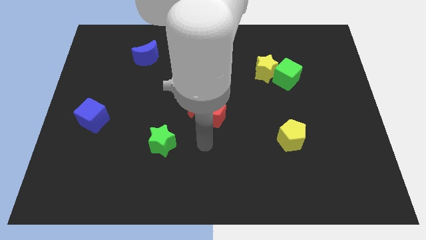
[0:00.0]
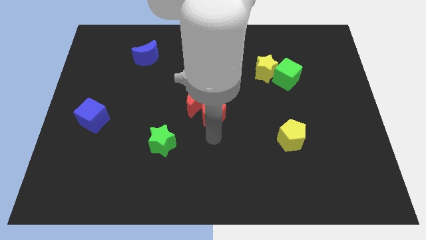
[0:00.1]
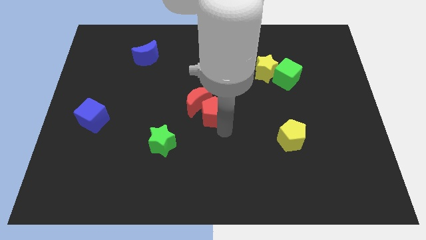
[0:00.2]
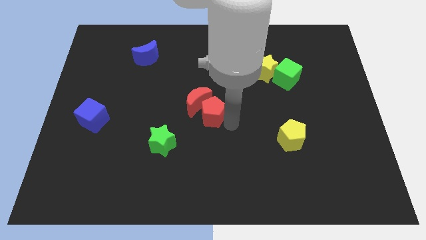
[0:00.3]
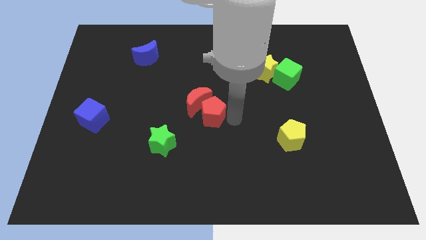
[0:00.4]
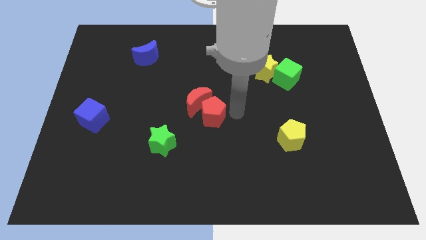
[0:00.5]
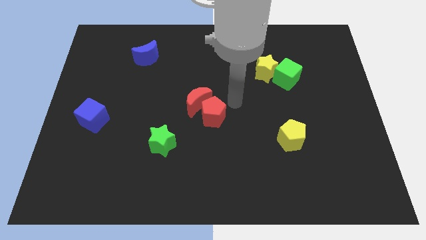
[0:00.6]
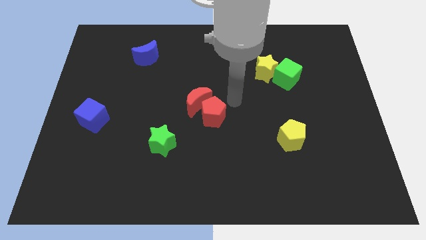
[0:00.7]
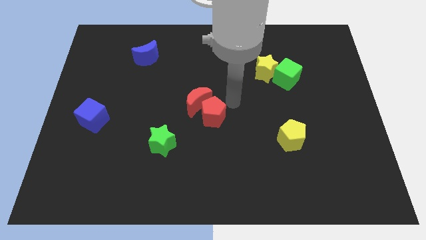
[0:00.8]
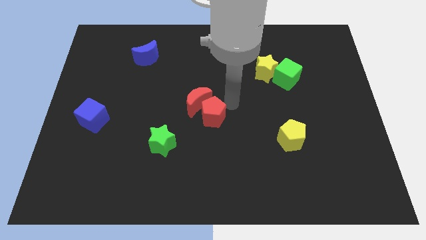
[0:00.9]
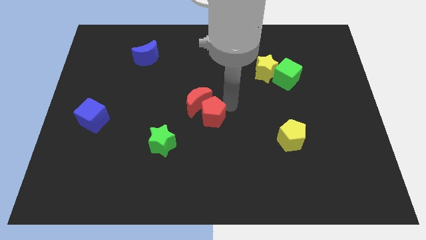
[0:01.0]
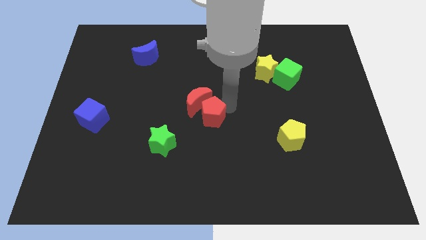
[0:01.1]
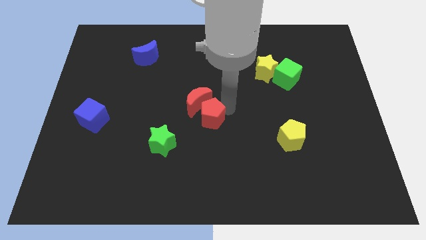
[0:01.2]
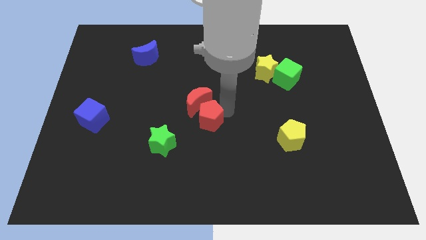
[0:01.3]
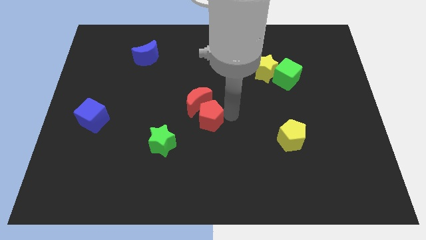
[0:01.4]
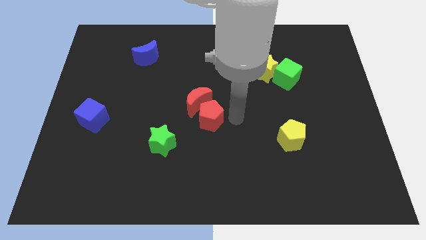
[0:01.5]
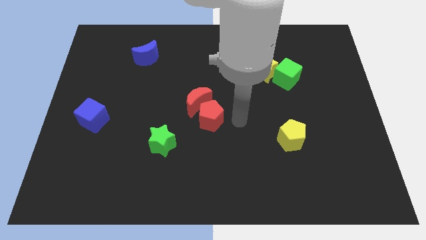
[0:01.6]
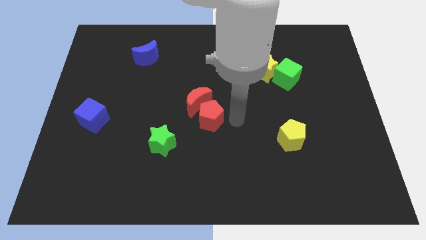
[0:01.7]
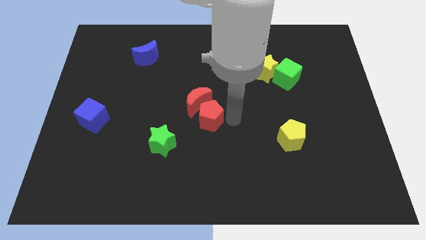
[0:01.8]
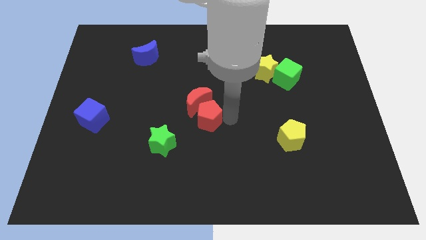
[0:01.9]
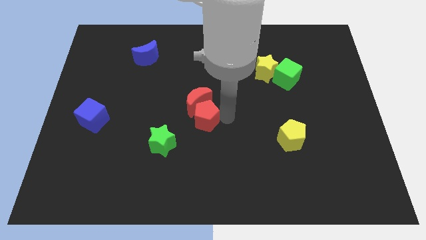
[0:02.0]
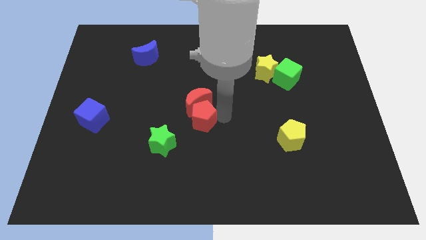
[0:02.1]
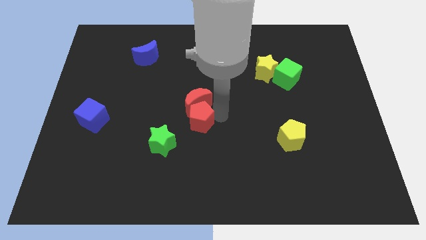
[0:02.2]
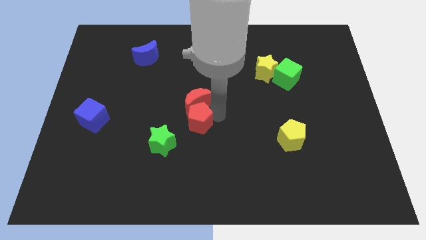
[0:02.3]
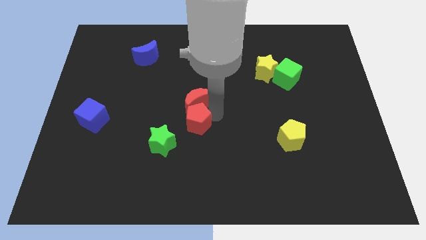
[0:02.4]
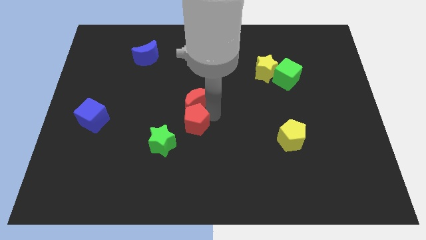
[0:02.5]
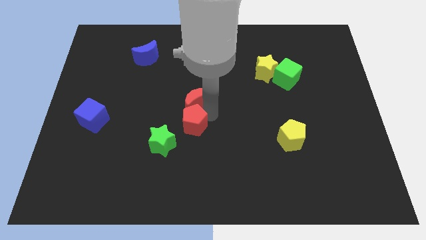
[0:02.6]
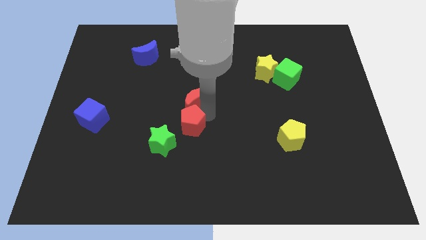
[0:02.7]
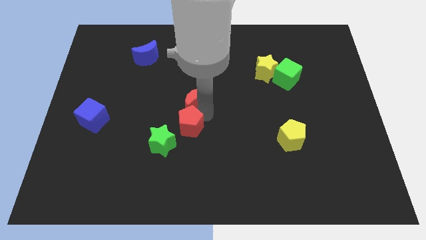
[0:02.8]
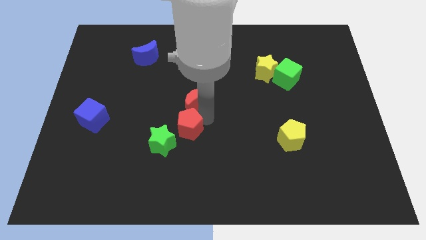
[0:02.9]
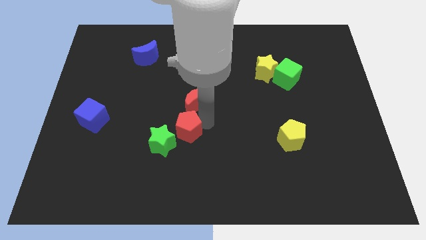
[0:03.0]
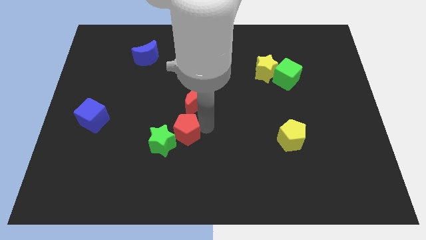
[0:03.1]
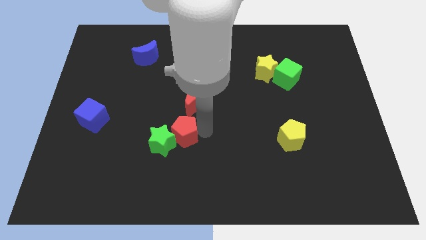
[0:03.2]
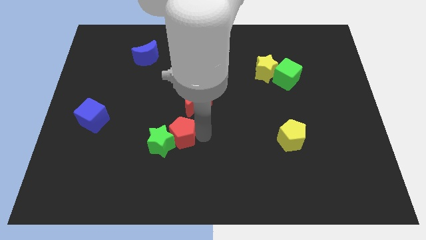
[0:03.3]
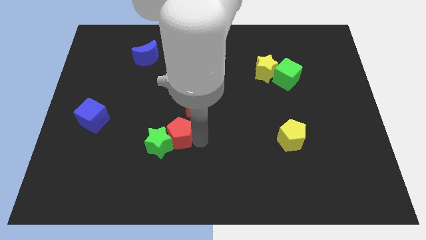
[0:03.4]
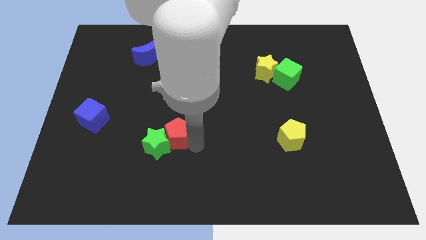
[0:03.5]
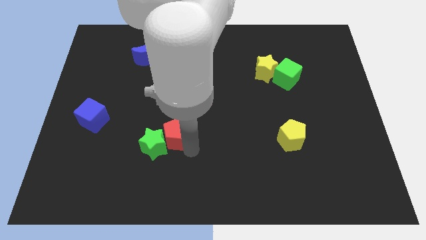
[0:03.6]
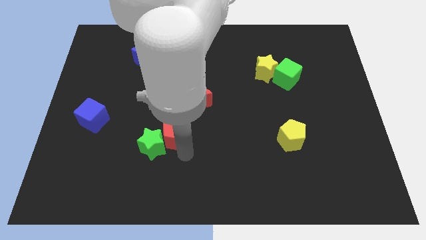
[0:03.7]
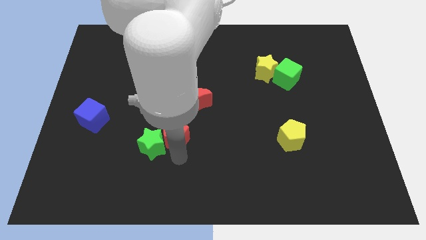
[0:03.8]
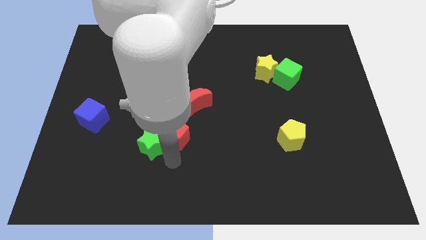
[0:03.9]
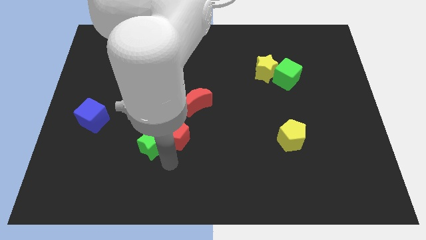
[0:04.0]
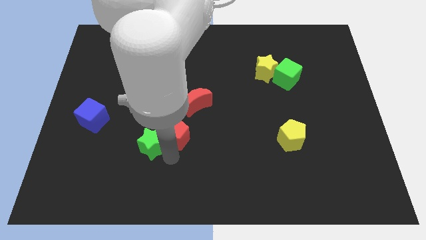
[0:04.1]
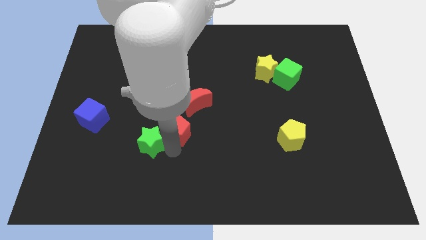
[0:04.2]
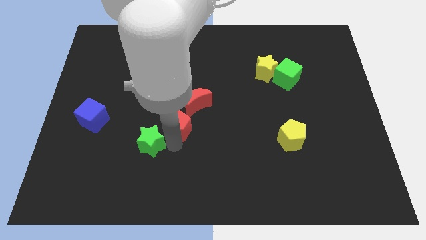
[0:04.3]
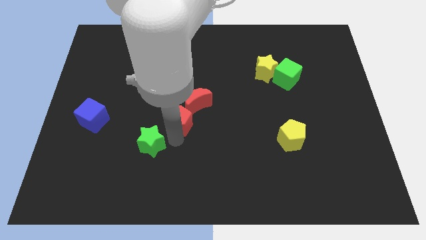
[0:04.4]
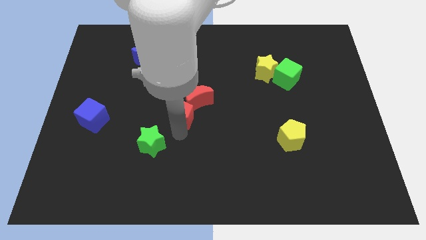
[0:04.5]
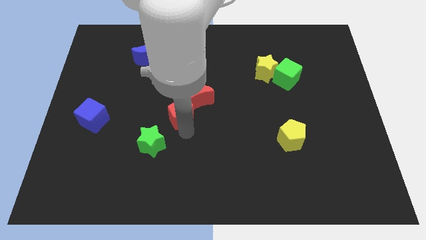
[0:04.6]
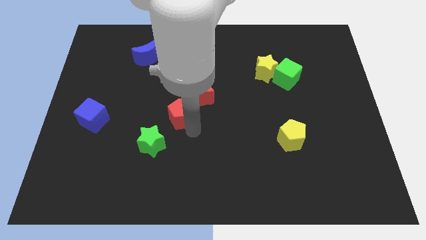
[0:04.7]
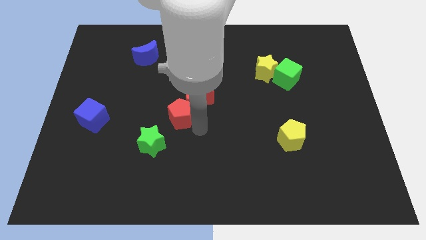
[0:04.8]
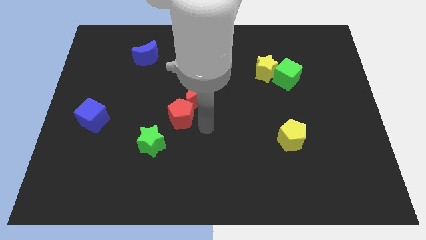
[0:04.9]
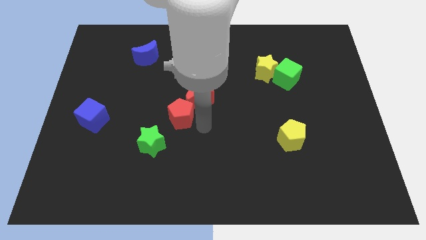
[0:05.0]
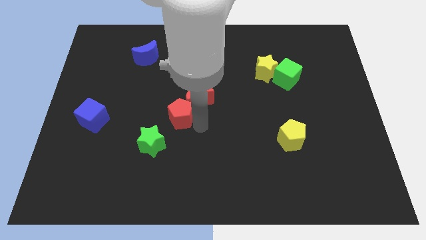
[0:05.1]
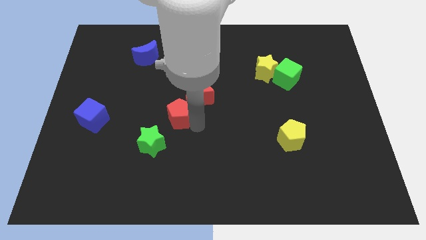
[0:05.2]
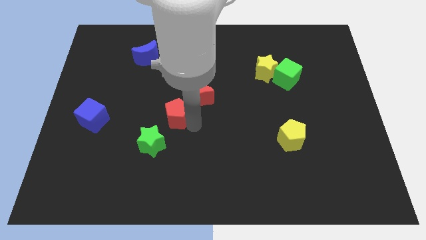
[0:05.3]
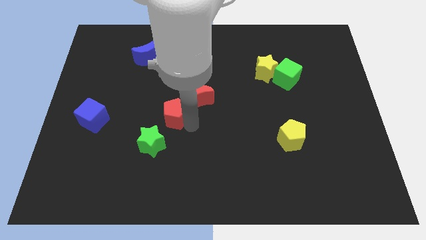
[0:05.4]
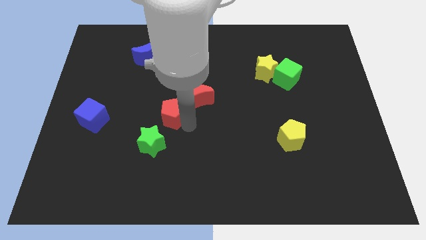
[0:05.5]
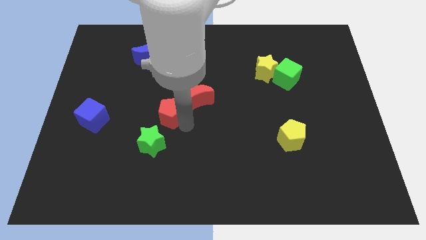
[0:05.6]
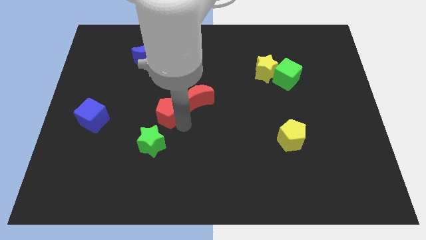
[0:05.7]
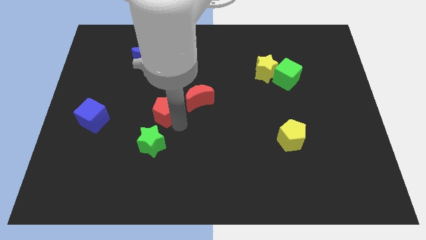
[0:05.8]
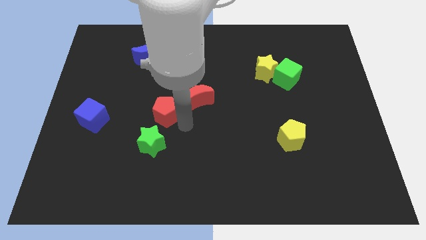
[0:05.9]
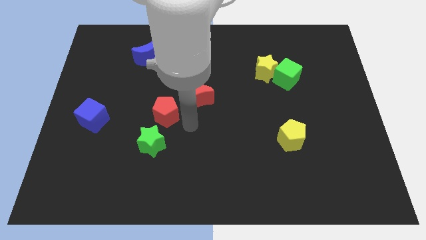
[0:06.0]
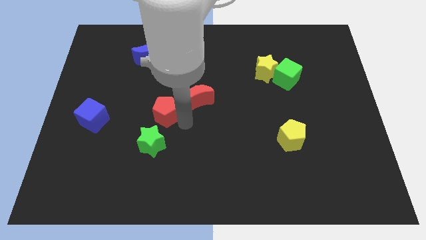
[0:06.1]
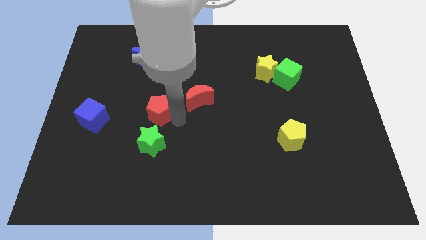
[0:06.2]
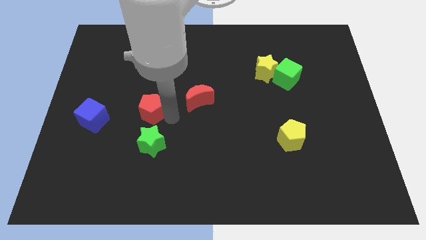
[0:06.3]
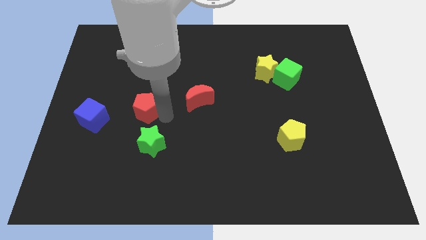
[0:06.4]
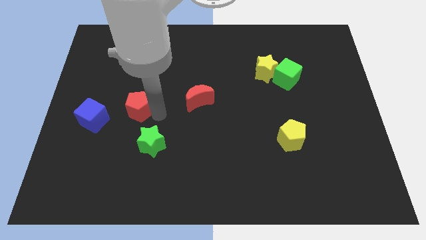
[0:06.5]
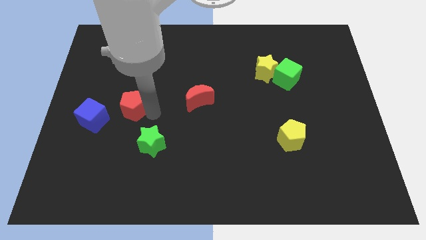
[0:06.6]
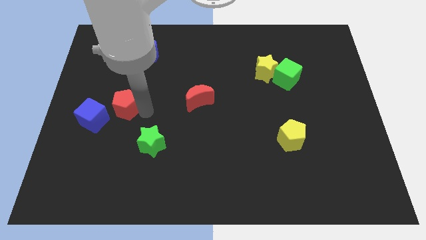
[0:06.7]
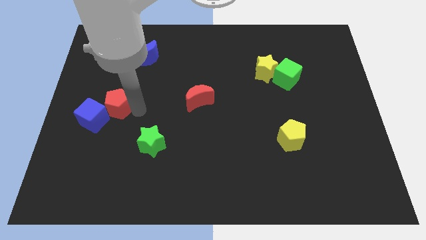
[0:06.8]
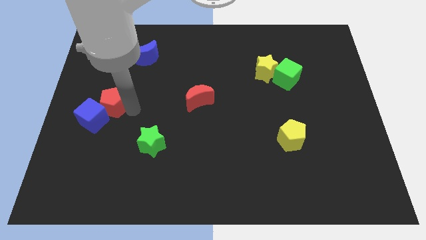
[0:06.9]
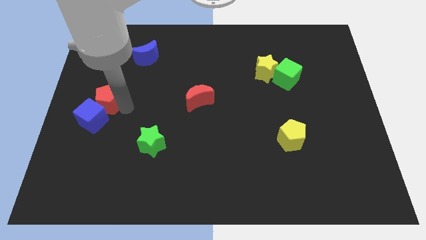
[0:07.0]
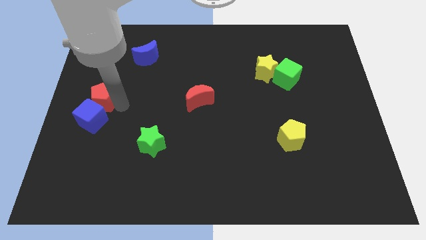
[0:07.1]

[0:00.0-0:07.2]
move the red pentagon to the center left

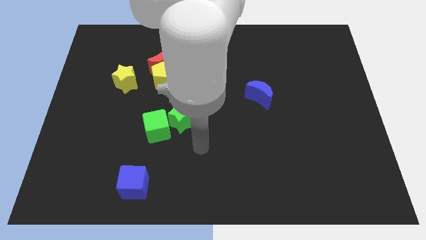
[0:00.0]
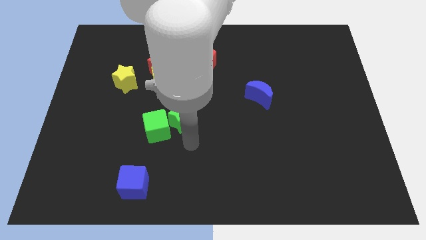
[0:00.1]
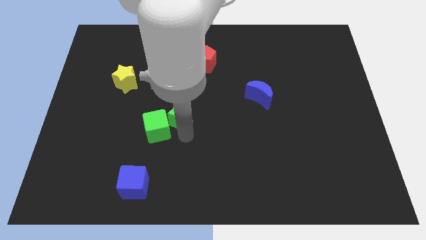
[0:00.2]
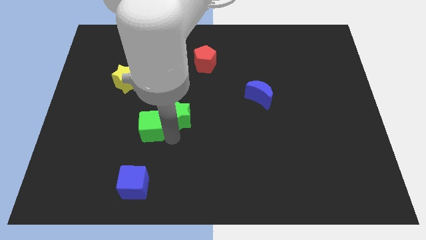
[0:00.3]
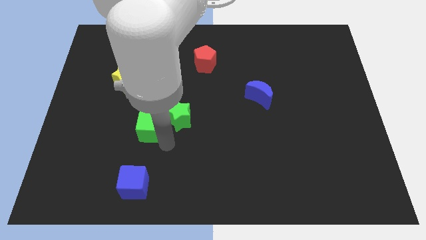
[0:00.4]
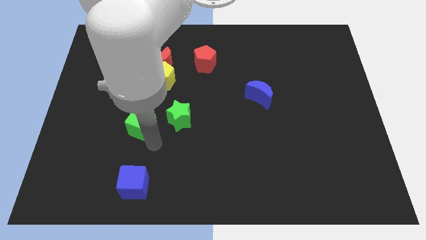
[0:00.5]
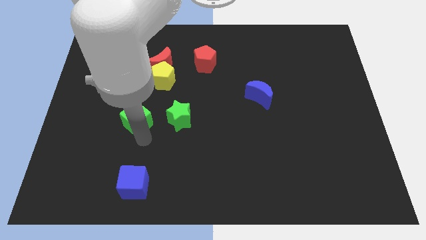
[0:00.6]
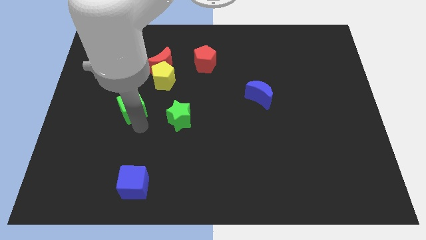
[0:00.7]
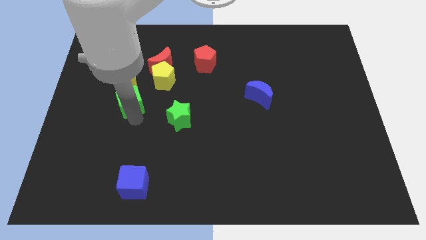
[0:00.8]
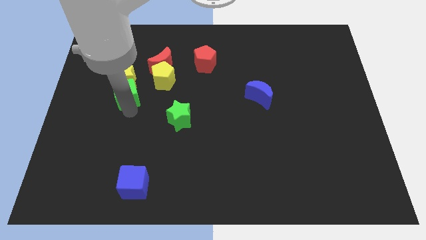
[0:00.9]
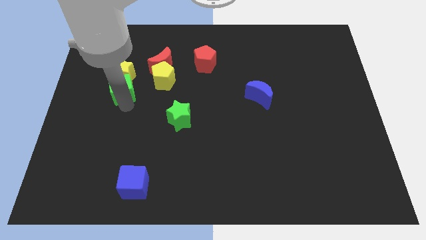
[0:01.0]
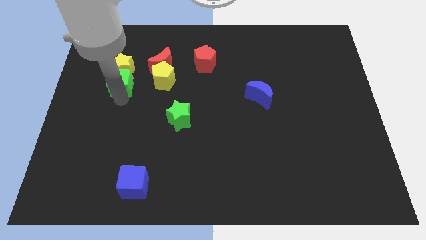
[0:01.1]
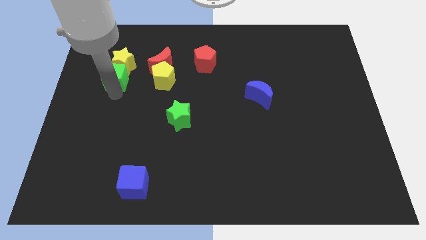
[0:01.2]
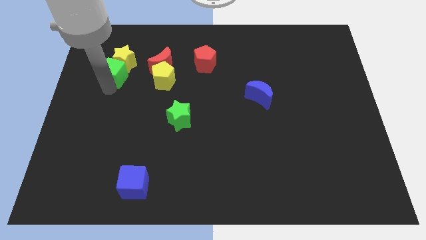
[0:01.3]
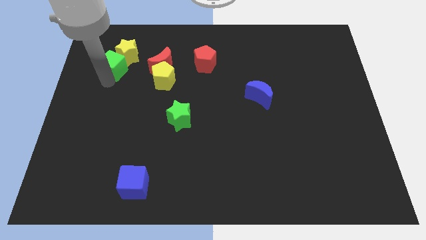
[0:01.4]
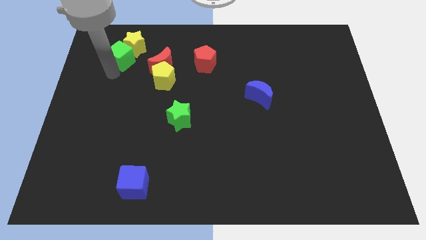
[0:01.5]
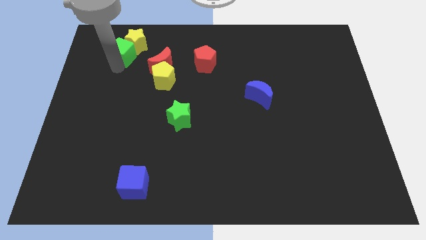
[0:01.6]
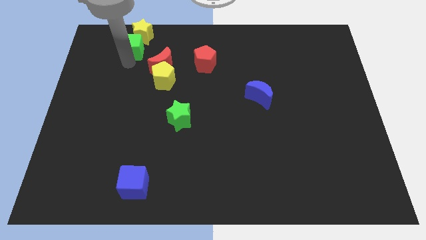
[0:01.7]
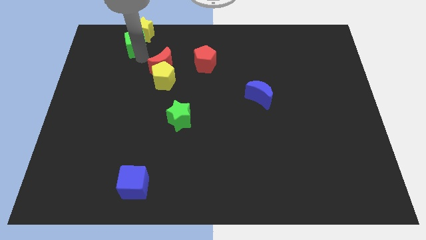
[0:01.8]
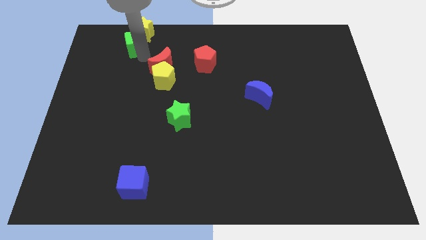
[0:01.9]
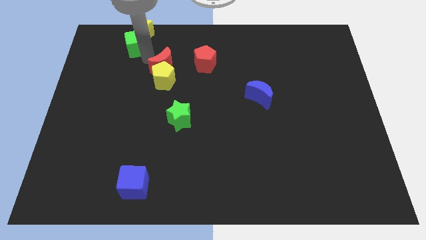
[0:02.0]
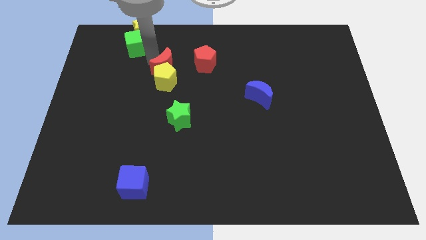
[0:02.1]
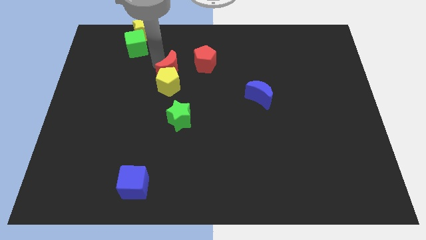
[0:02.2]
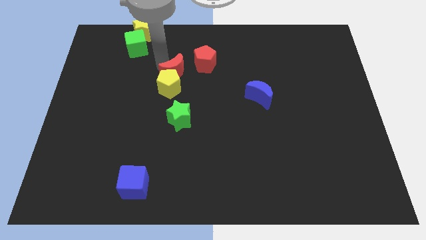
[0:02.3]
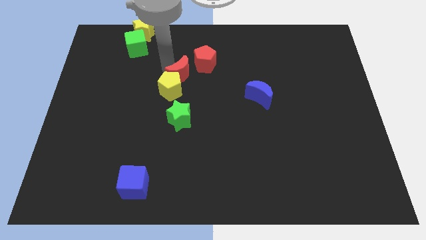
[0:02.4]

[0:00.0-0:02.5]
move the red moon to the middle of the board
